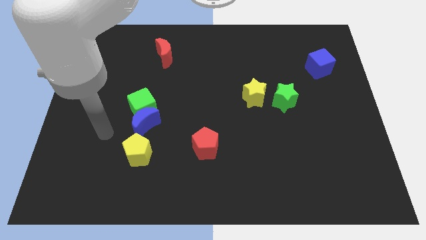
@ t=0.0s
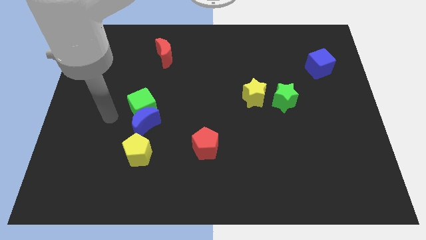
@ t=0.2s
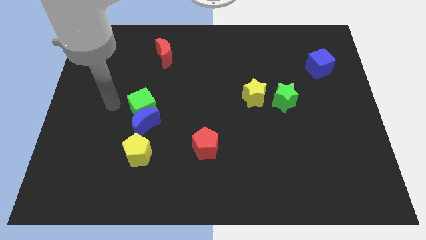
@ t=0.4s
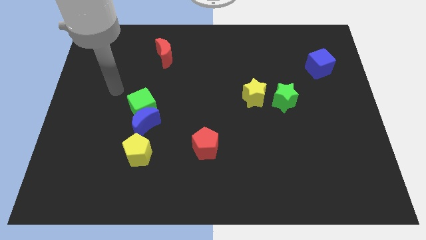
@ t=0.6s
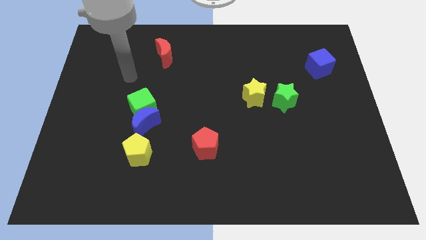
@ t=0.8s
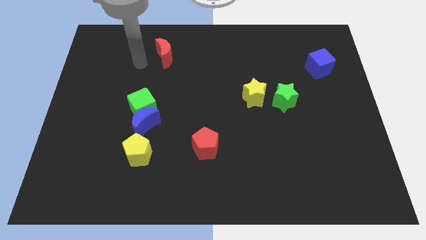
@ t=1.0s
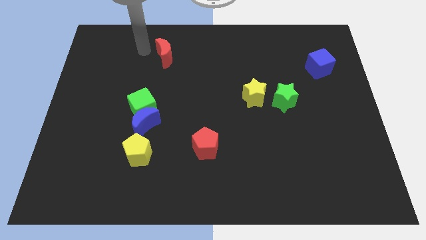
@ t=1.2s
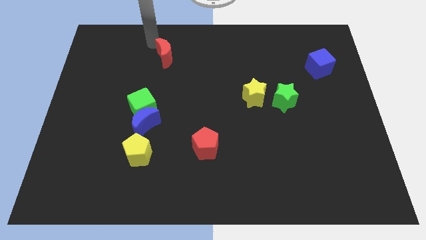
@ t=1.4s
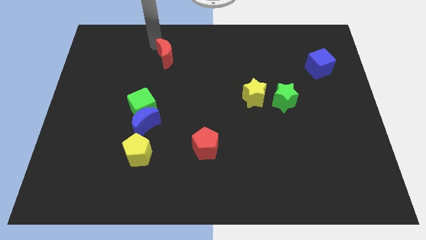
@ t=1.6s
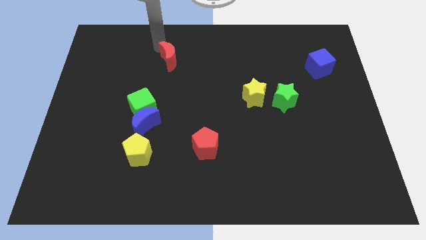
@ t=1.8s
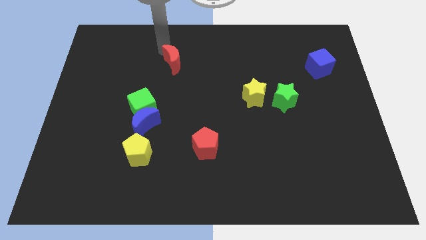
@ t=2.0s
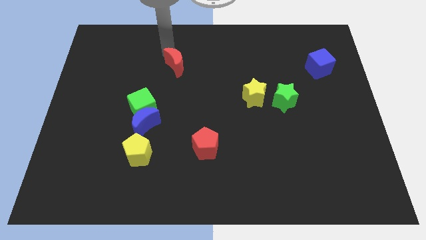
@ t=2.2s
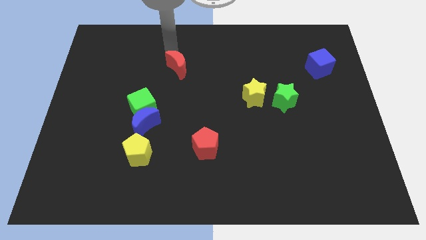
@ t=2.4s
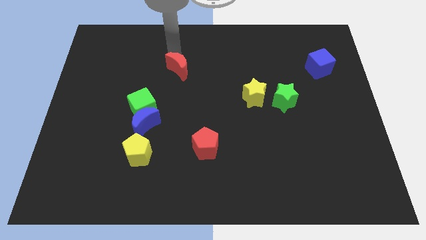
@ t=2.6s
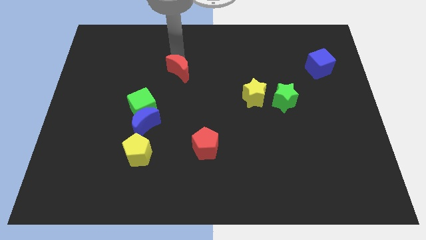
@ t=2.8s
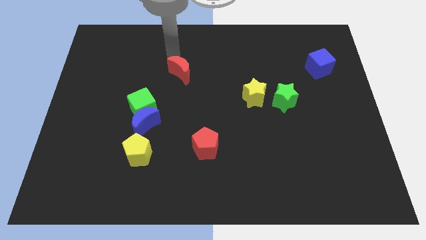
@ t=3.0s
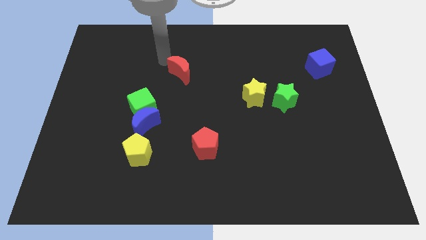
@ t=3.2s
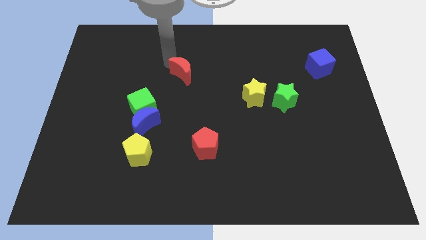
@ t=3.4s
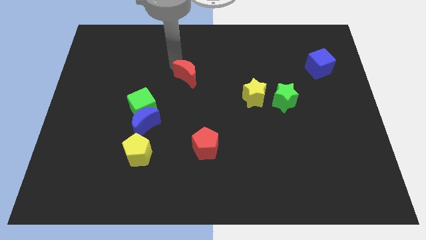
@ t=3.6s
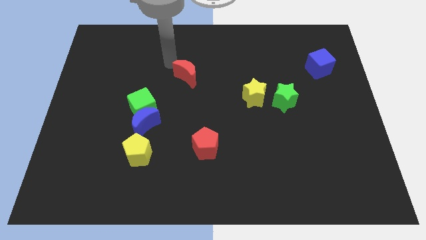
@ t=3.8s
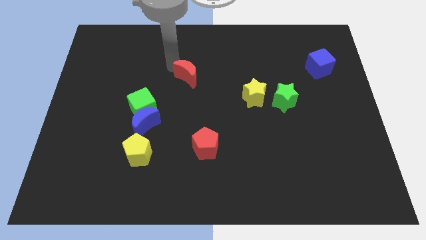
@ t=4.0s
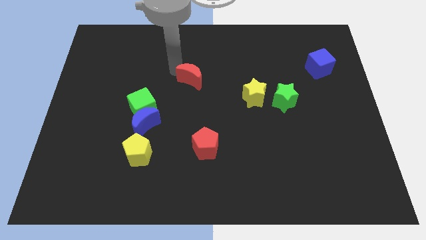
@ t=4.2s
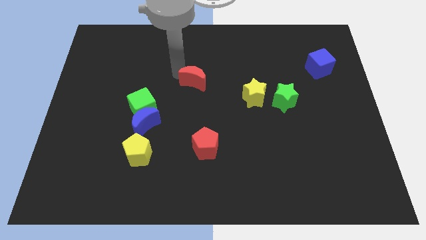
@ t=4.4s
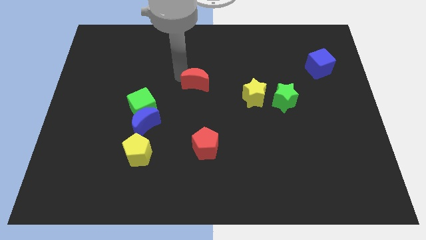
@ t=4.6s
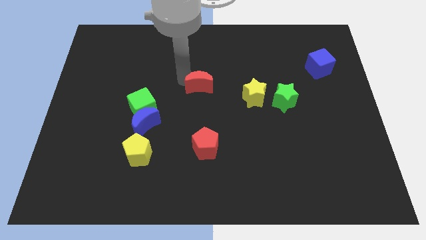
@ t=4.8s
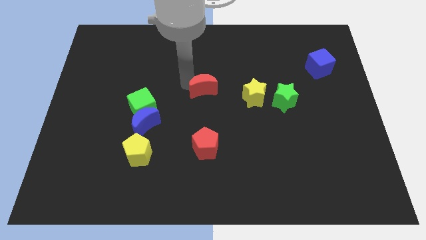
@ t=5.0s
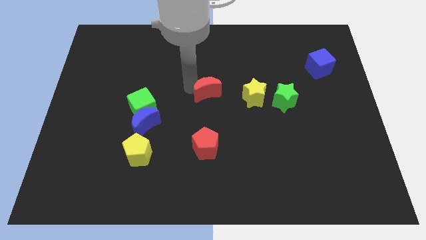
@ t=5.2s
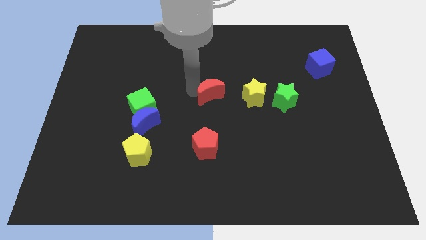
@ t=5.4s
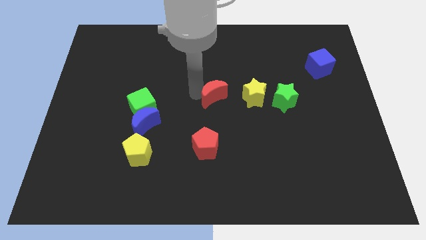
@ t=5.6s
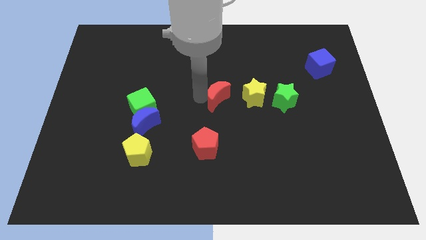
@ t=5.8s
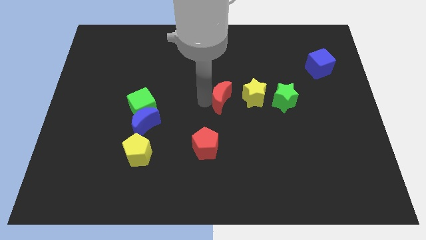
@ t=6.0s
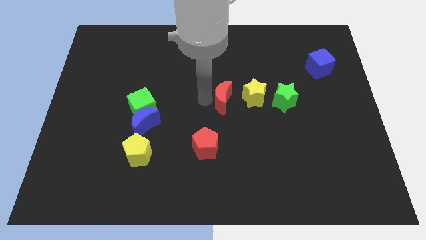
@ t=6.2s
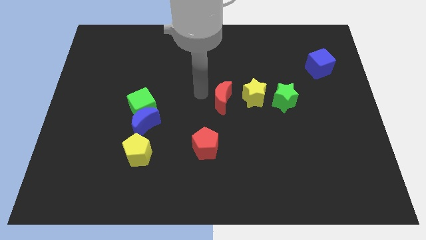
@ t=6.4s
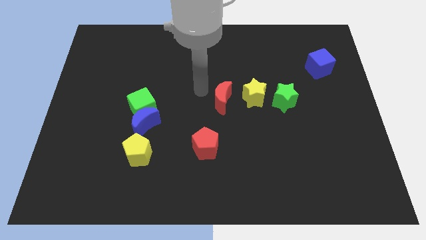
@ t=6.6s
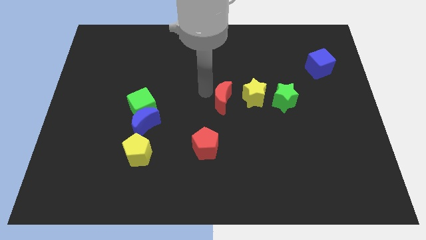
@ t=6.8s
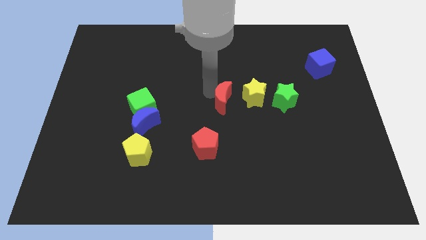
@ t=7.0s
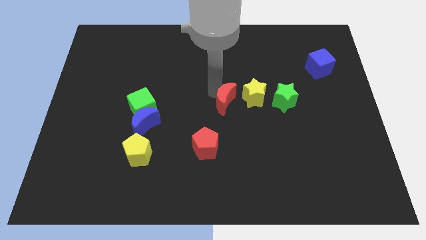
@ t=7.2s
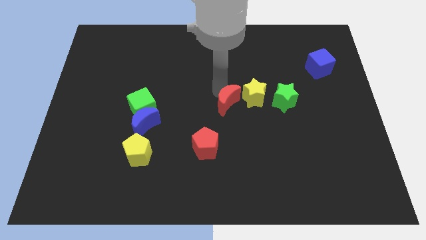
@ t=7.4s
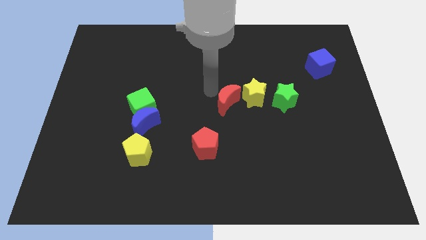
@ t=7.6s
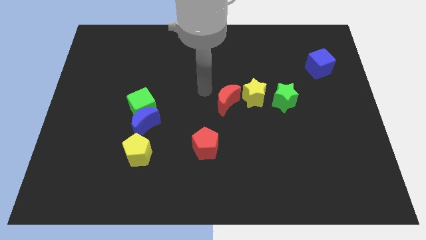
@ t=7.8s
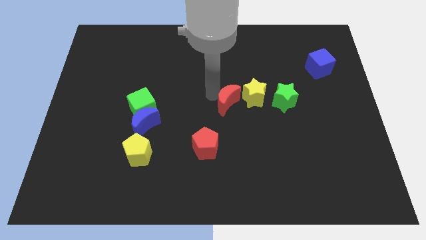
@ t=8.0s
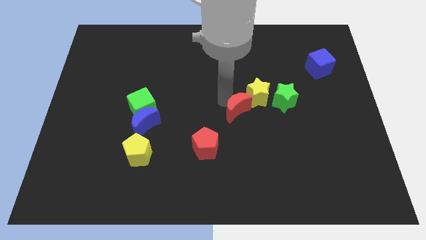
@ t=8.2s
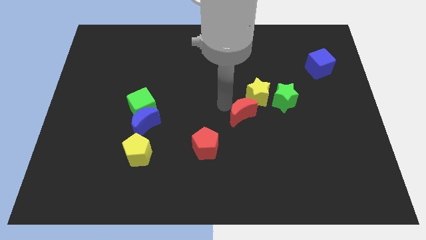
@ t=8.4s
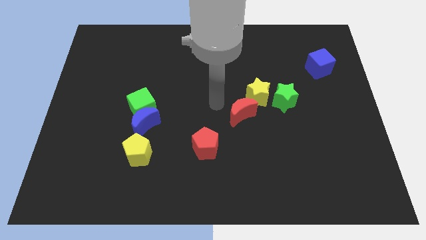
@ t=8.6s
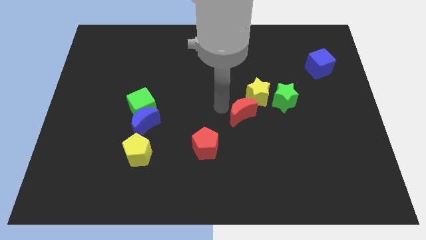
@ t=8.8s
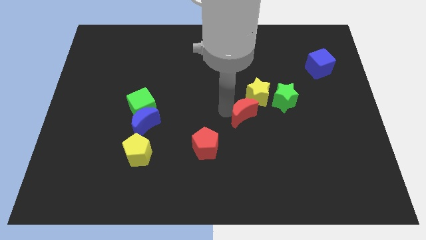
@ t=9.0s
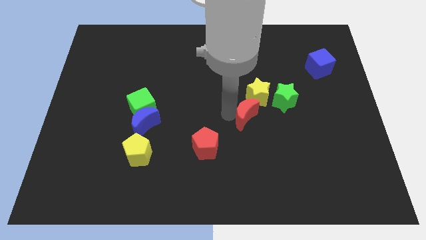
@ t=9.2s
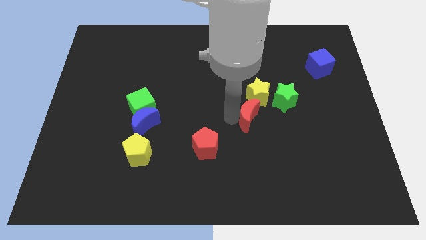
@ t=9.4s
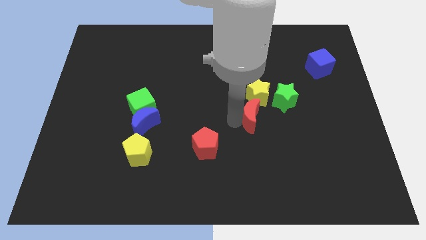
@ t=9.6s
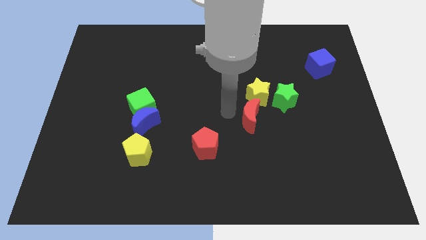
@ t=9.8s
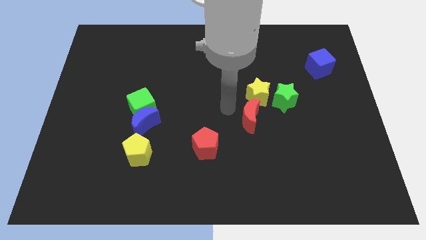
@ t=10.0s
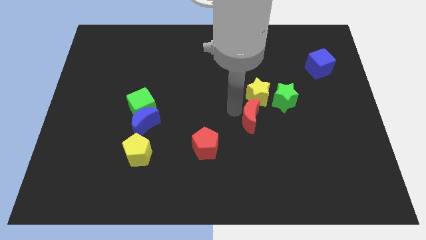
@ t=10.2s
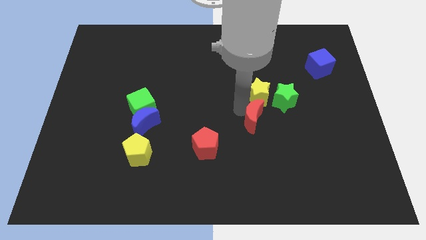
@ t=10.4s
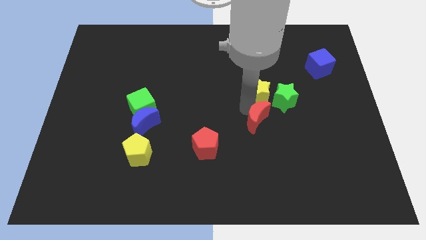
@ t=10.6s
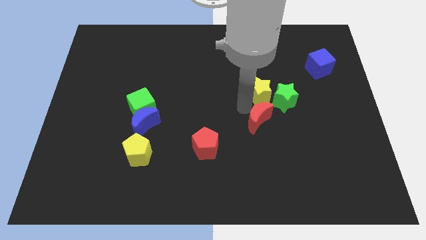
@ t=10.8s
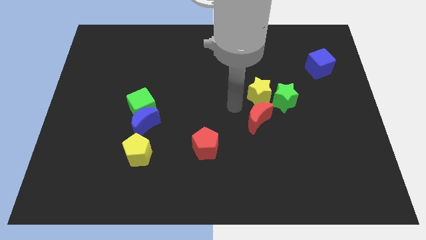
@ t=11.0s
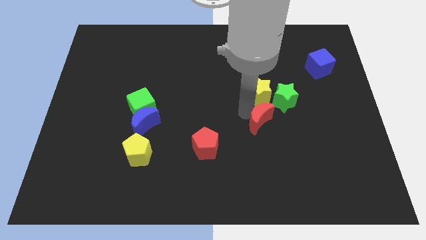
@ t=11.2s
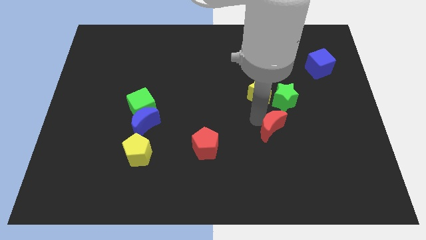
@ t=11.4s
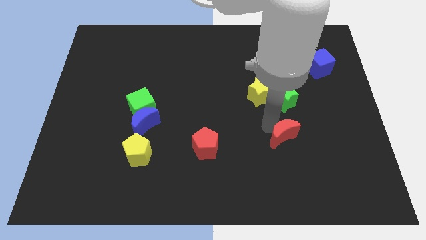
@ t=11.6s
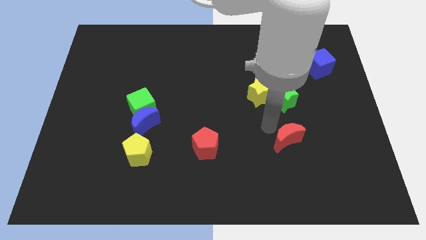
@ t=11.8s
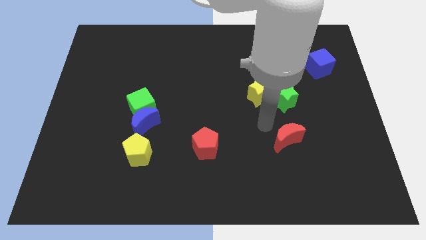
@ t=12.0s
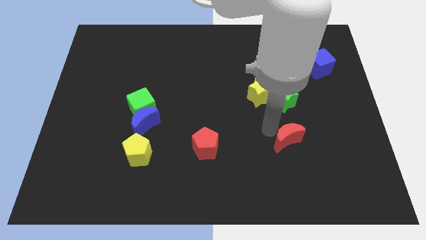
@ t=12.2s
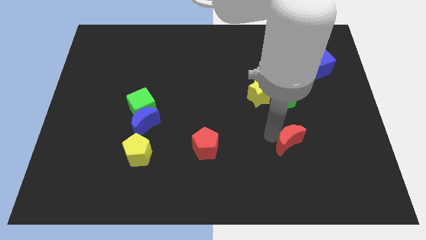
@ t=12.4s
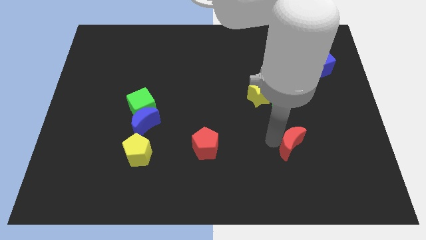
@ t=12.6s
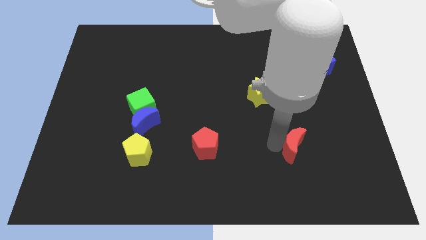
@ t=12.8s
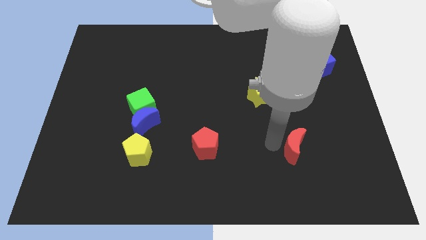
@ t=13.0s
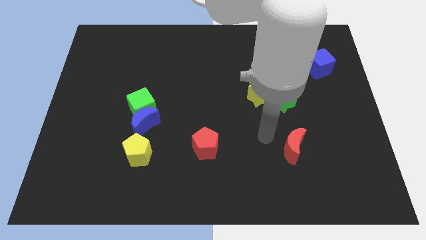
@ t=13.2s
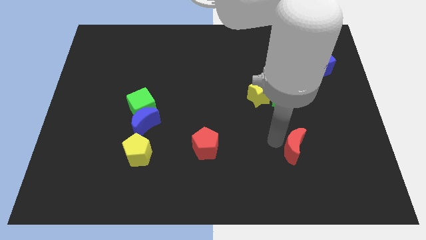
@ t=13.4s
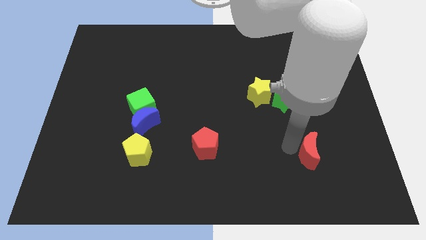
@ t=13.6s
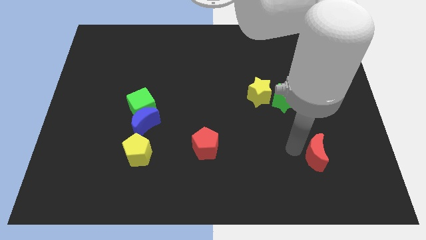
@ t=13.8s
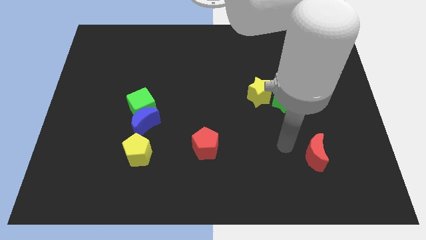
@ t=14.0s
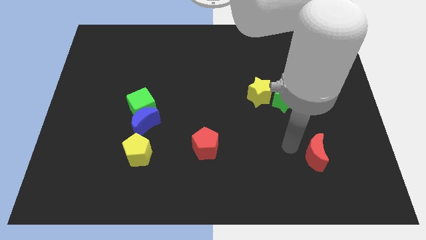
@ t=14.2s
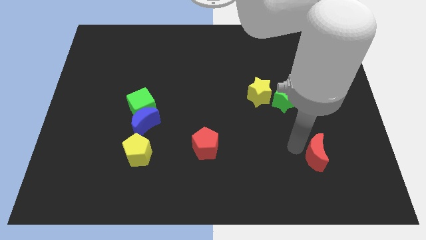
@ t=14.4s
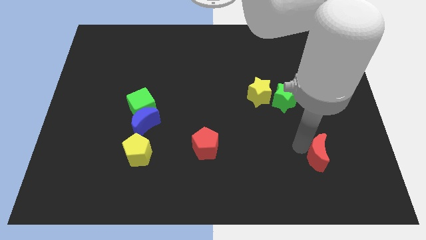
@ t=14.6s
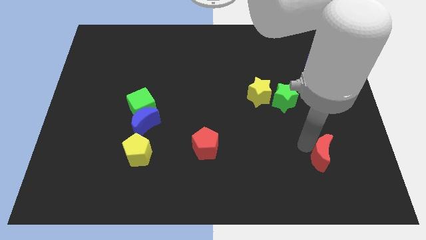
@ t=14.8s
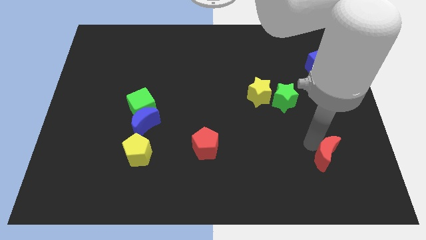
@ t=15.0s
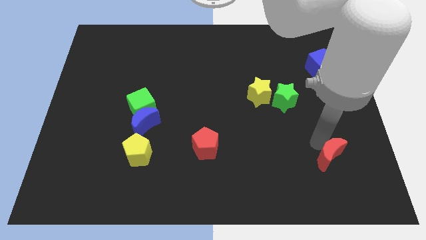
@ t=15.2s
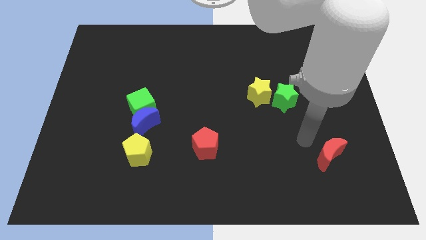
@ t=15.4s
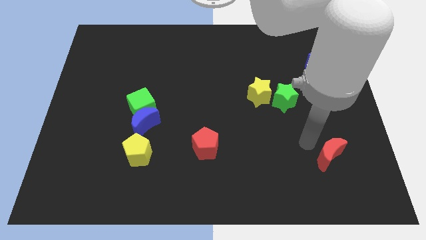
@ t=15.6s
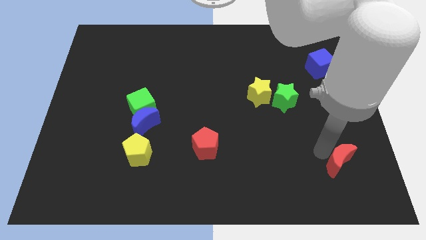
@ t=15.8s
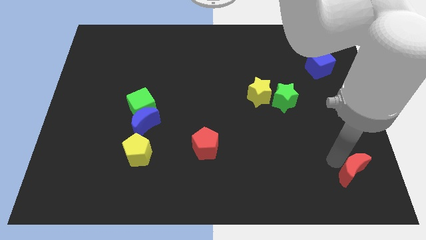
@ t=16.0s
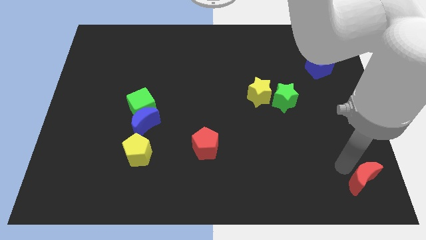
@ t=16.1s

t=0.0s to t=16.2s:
slide the red moon to the bottom right corner
